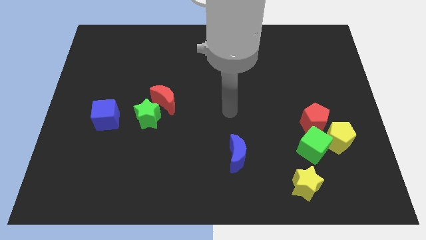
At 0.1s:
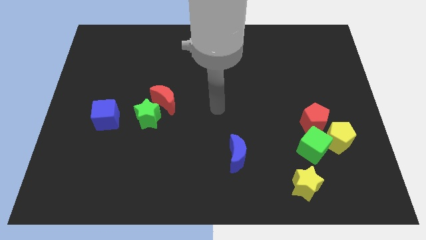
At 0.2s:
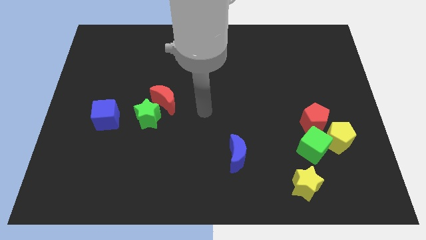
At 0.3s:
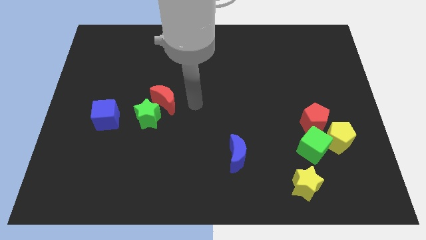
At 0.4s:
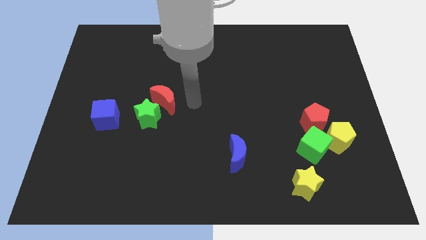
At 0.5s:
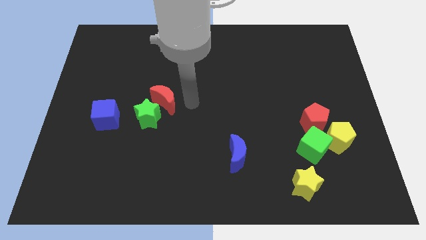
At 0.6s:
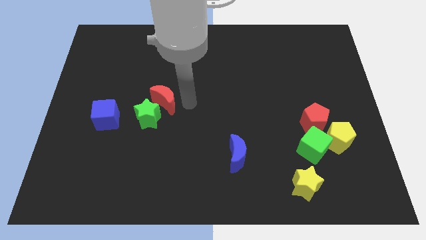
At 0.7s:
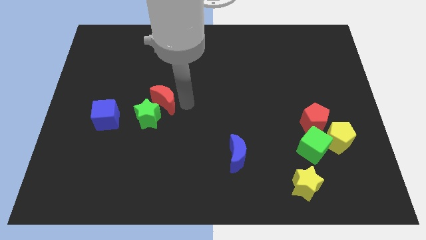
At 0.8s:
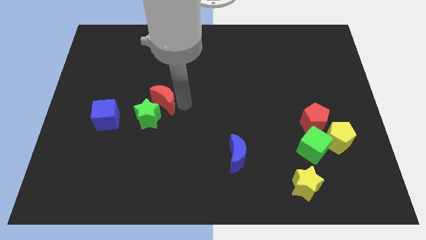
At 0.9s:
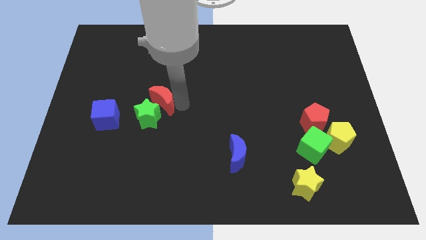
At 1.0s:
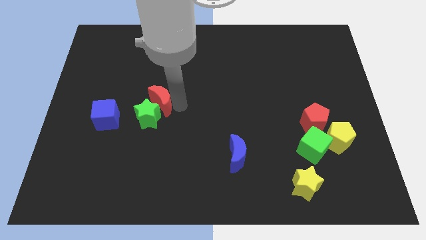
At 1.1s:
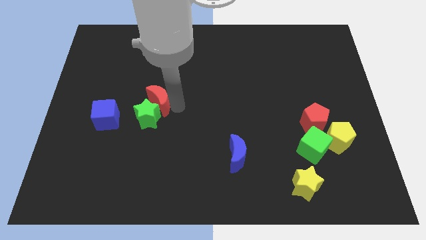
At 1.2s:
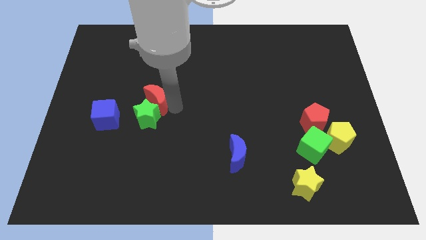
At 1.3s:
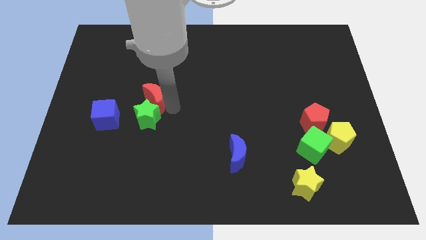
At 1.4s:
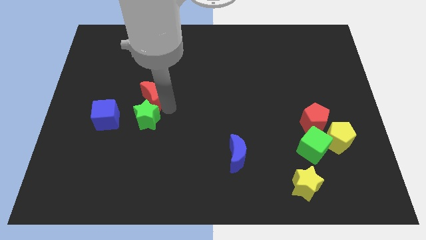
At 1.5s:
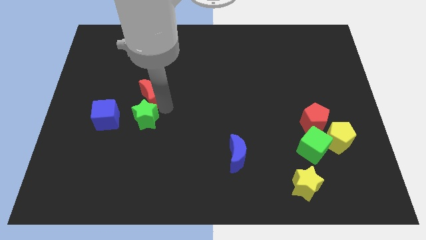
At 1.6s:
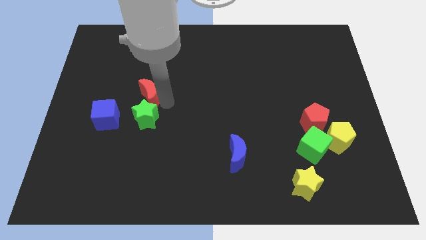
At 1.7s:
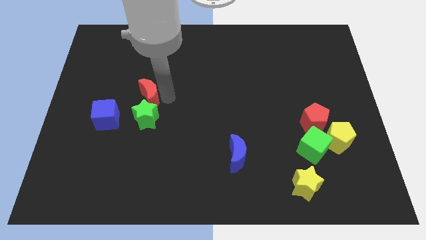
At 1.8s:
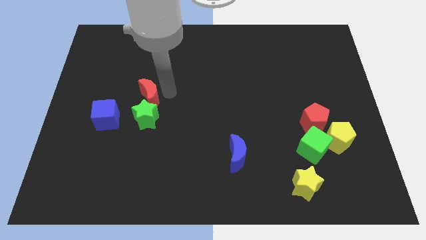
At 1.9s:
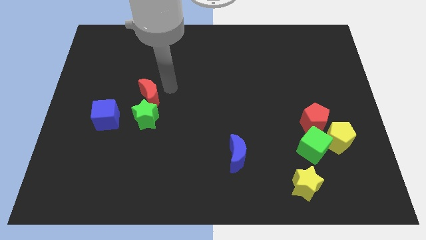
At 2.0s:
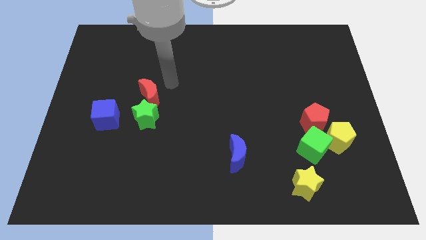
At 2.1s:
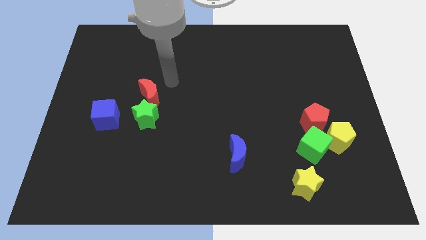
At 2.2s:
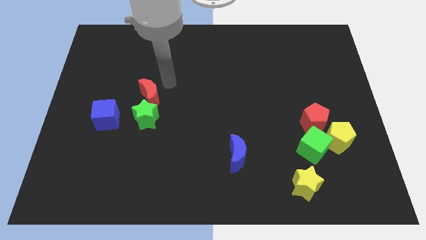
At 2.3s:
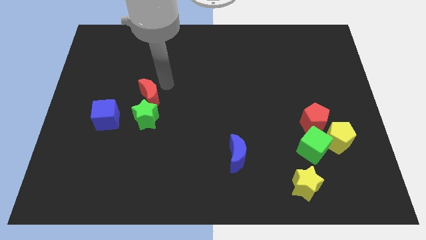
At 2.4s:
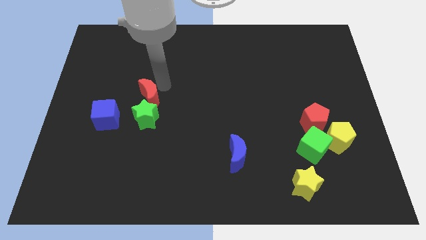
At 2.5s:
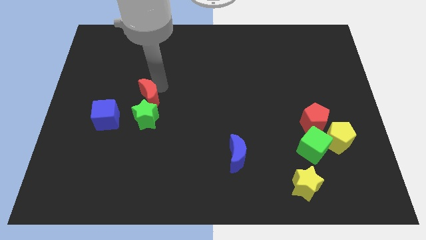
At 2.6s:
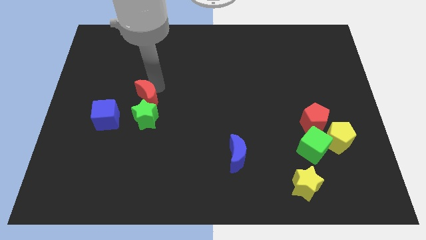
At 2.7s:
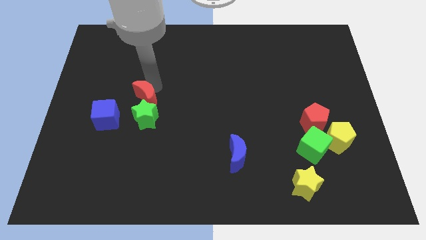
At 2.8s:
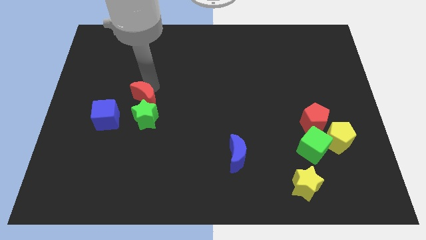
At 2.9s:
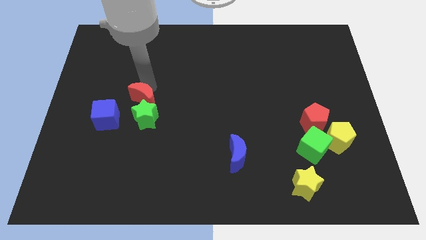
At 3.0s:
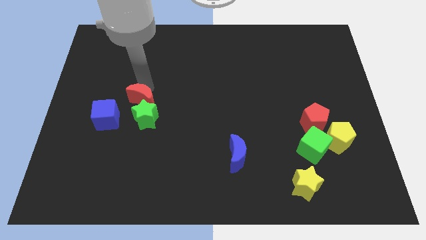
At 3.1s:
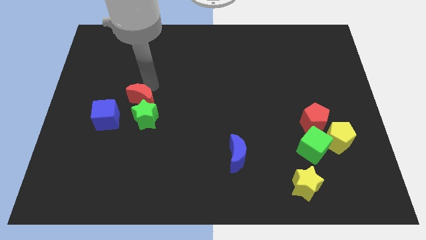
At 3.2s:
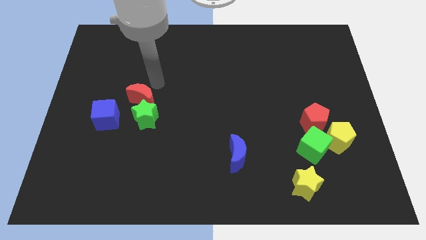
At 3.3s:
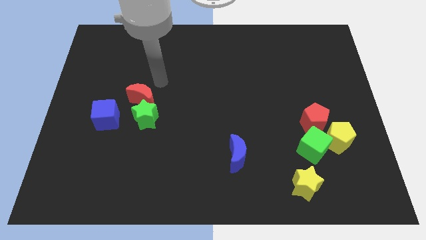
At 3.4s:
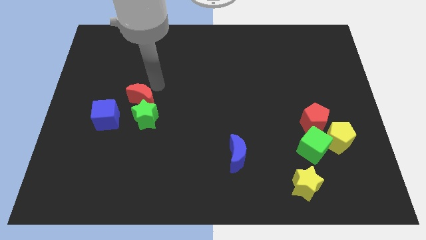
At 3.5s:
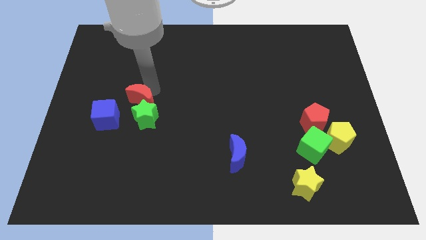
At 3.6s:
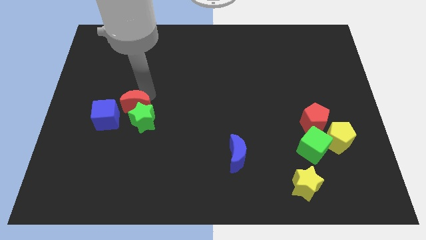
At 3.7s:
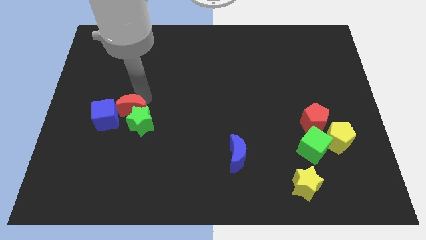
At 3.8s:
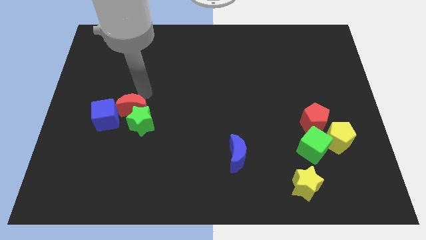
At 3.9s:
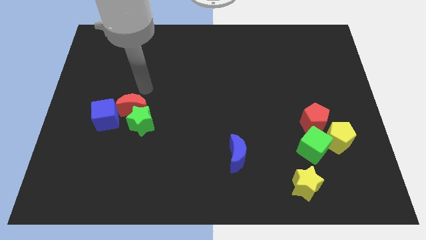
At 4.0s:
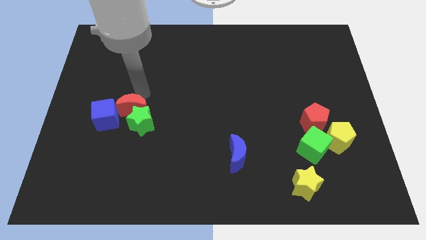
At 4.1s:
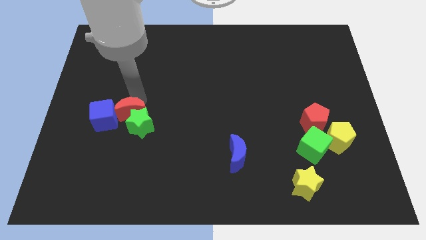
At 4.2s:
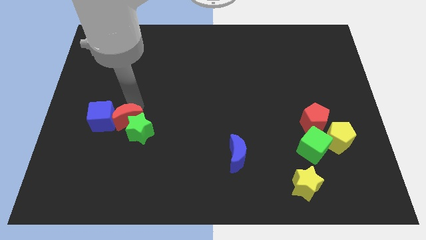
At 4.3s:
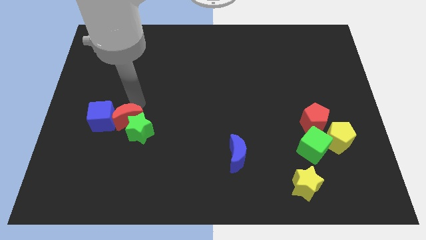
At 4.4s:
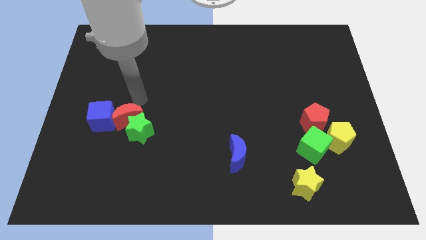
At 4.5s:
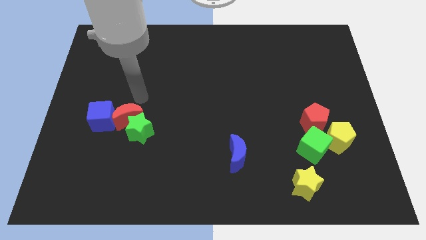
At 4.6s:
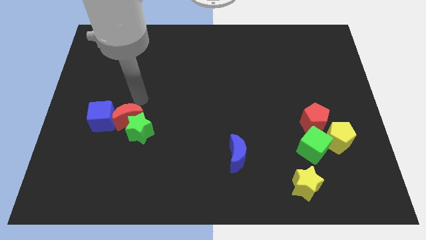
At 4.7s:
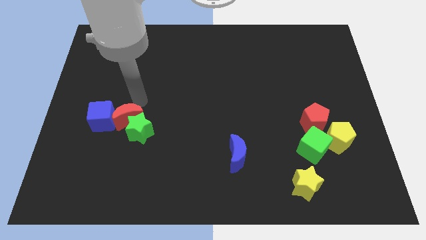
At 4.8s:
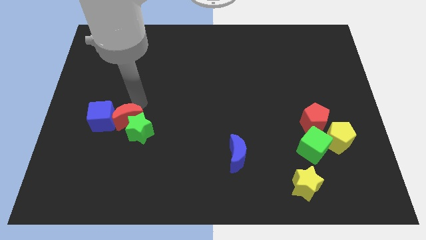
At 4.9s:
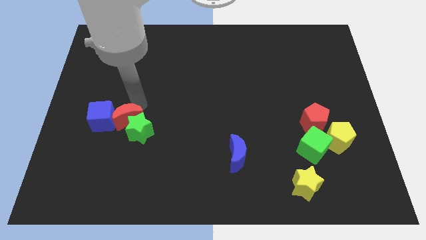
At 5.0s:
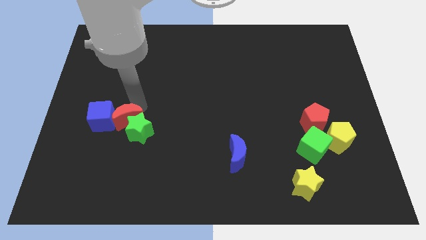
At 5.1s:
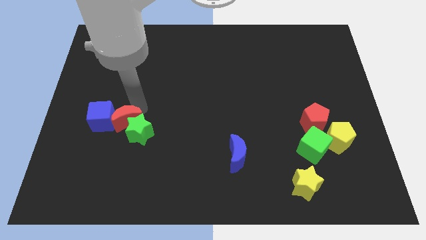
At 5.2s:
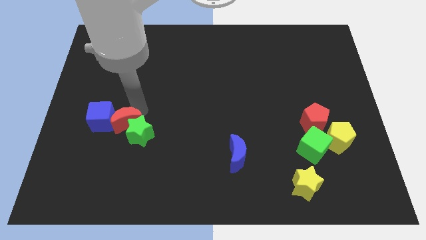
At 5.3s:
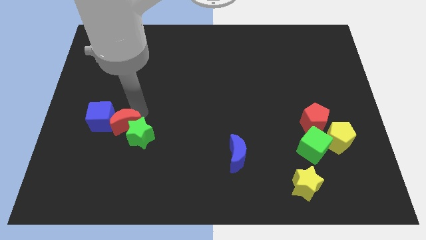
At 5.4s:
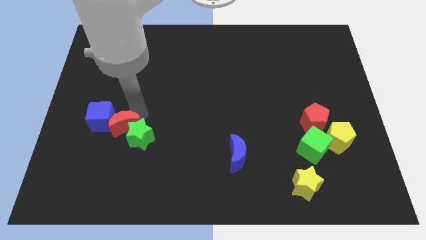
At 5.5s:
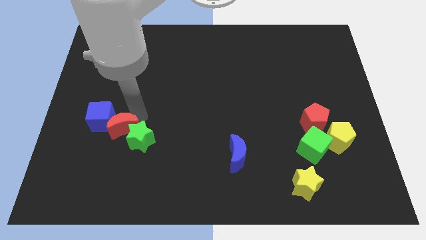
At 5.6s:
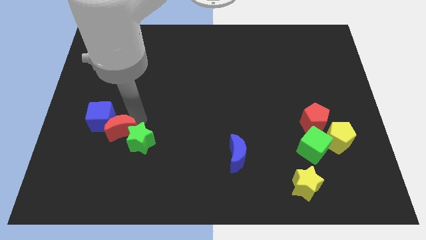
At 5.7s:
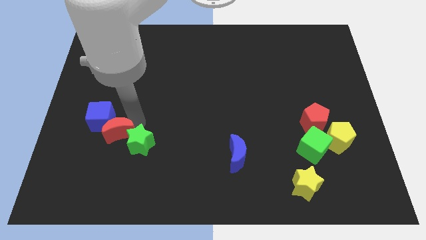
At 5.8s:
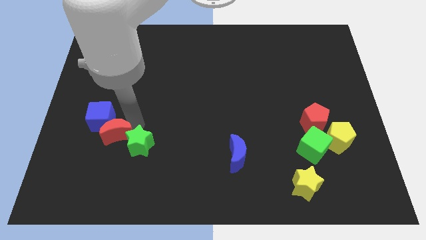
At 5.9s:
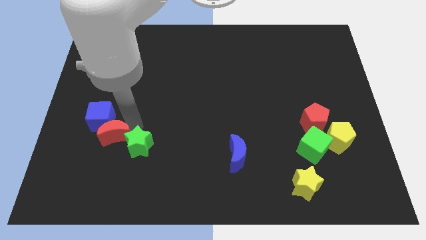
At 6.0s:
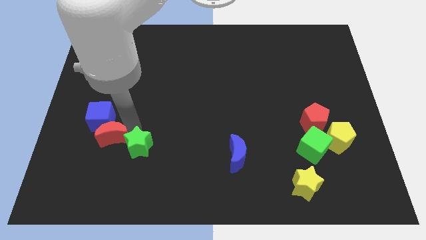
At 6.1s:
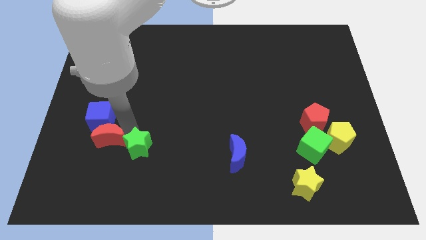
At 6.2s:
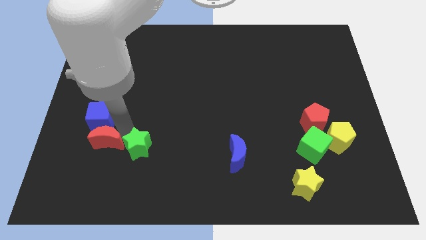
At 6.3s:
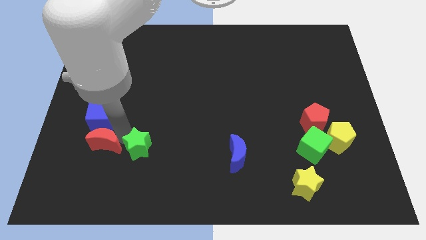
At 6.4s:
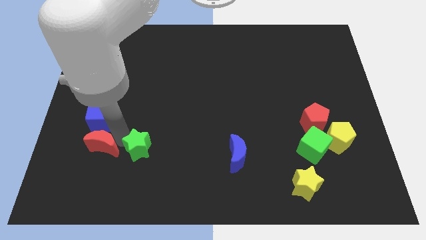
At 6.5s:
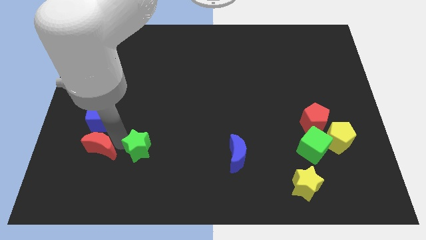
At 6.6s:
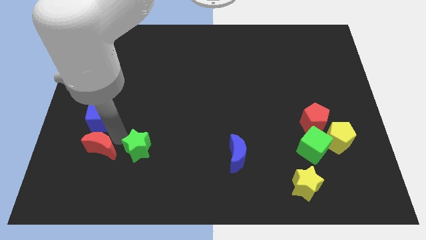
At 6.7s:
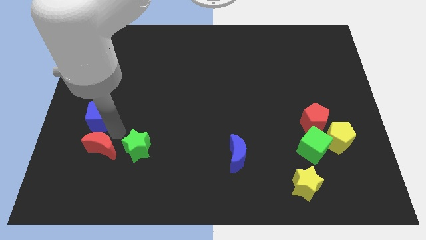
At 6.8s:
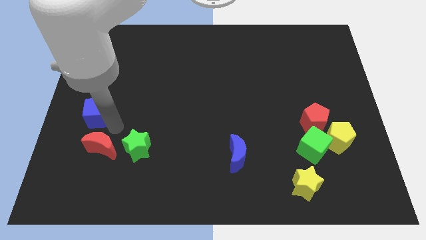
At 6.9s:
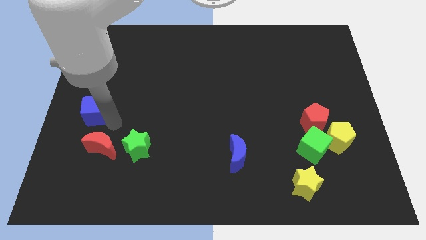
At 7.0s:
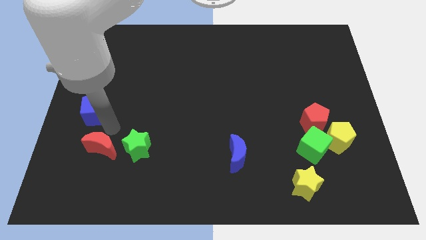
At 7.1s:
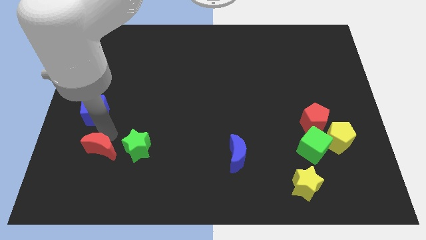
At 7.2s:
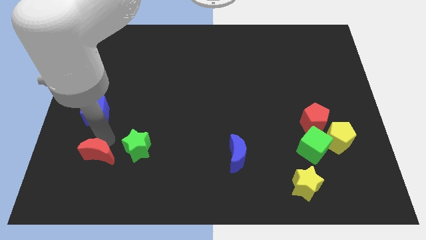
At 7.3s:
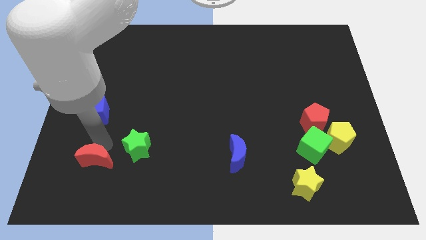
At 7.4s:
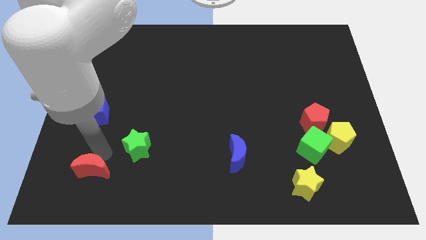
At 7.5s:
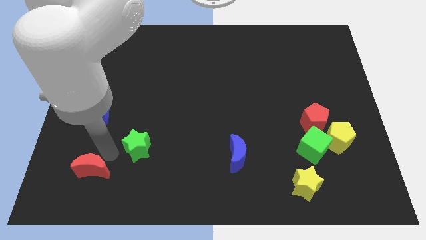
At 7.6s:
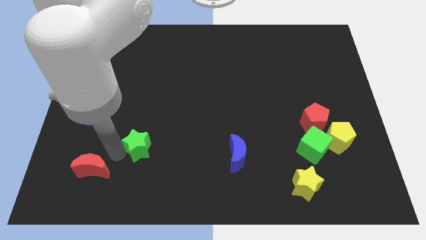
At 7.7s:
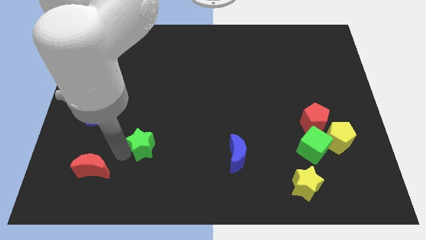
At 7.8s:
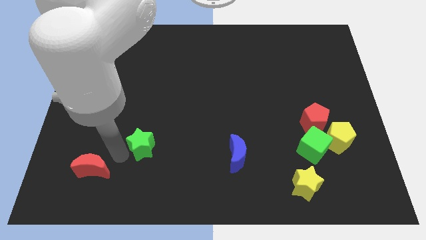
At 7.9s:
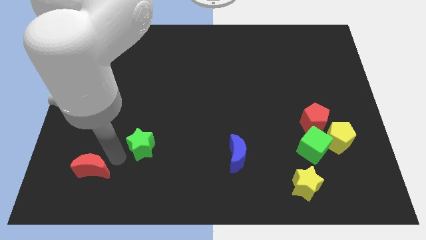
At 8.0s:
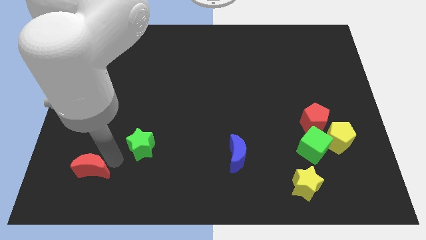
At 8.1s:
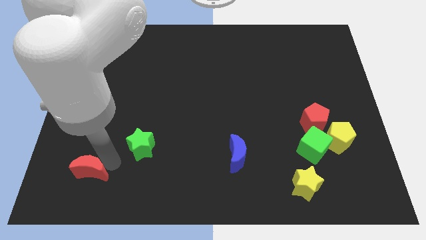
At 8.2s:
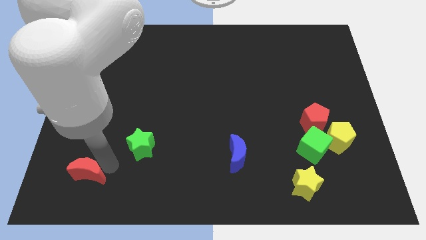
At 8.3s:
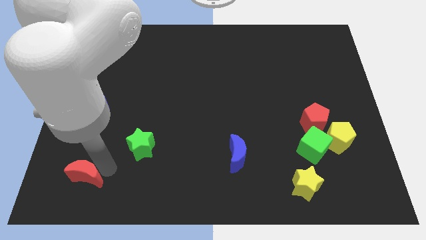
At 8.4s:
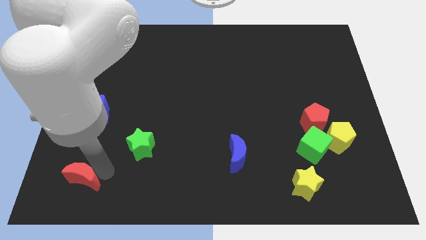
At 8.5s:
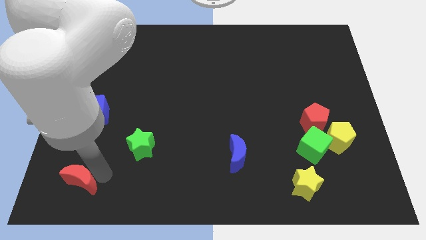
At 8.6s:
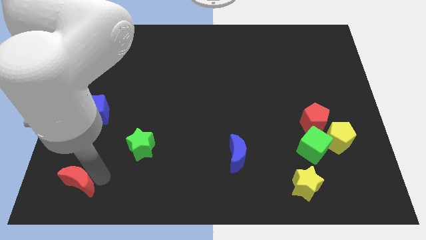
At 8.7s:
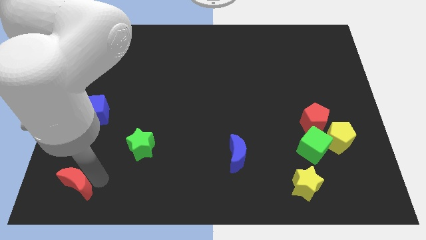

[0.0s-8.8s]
push the red moon to the bottom left
